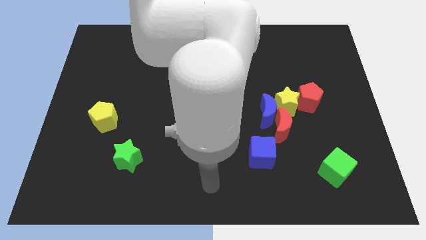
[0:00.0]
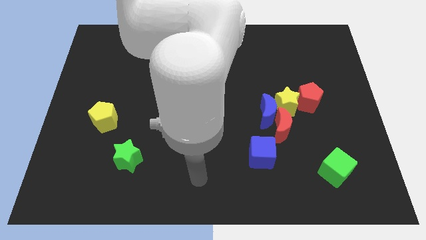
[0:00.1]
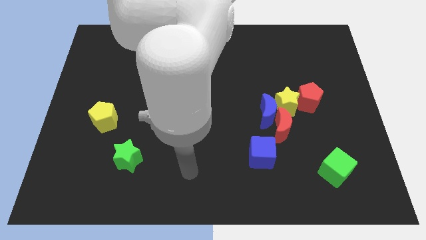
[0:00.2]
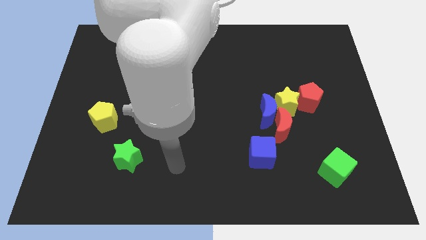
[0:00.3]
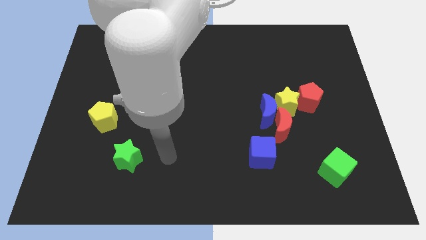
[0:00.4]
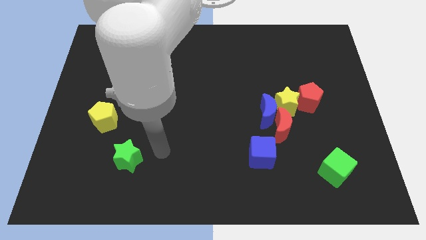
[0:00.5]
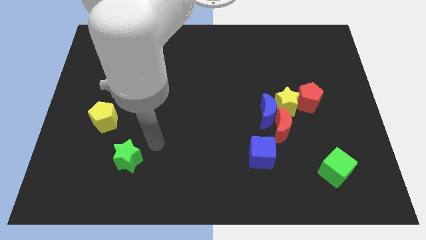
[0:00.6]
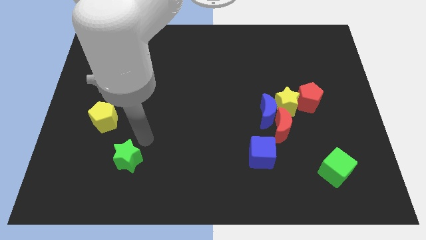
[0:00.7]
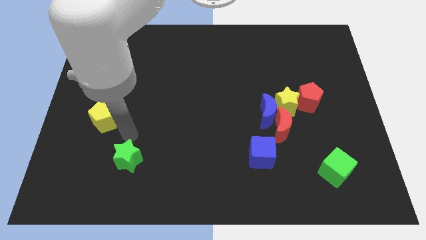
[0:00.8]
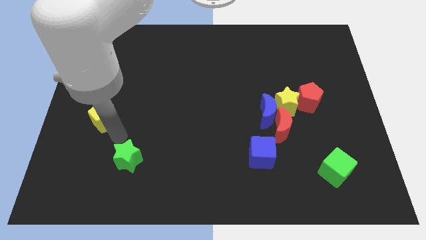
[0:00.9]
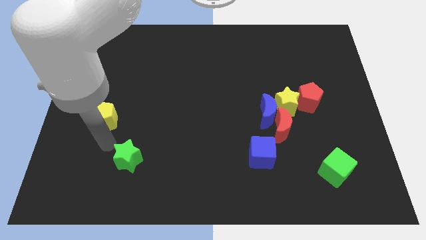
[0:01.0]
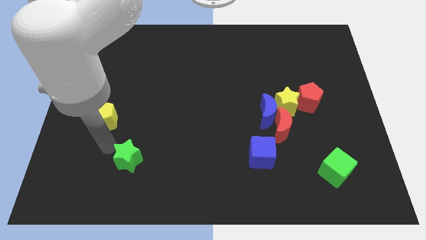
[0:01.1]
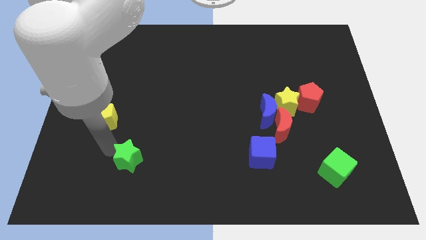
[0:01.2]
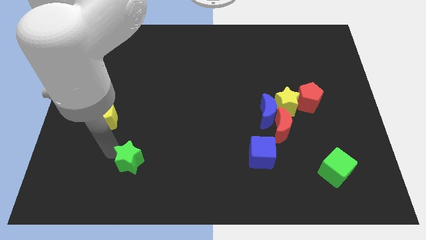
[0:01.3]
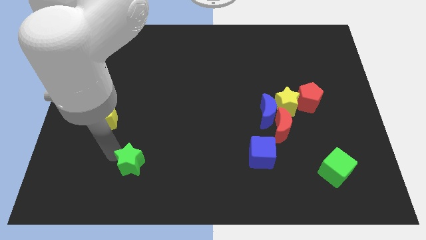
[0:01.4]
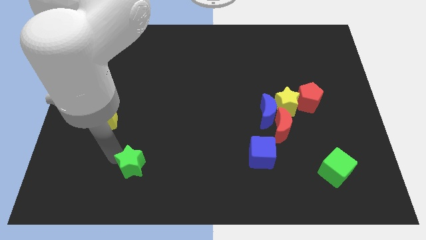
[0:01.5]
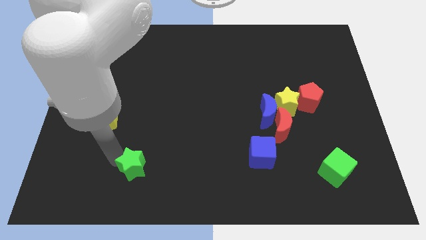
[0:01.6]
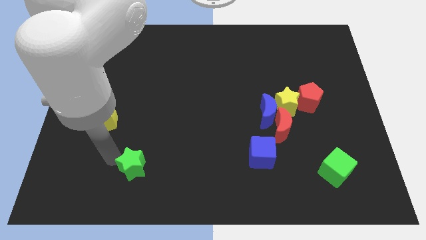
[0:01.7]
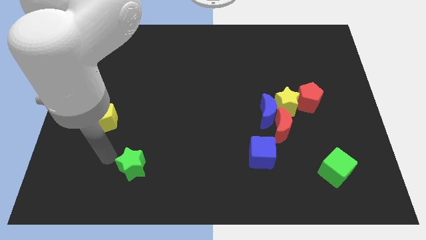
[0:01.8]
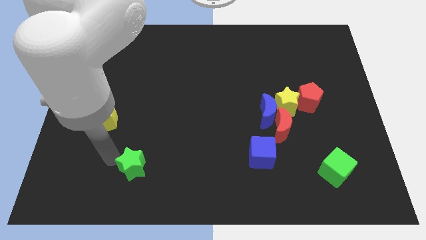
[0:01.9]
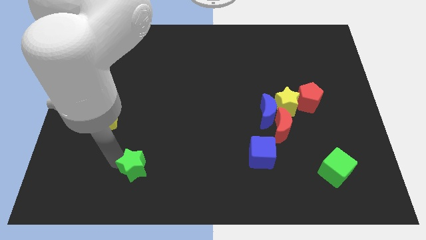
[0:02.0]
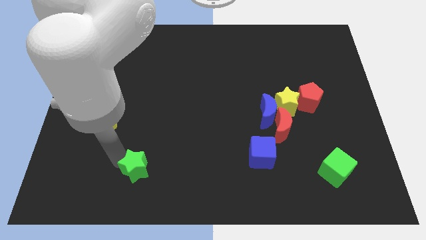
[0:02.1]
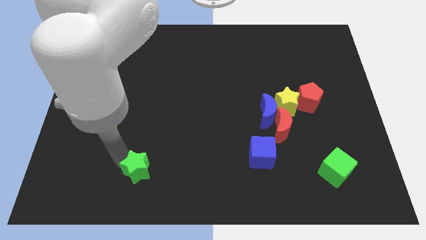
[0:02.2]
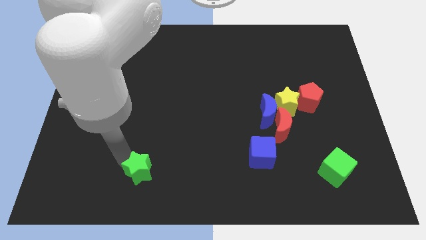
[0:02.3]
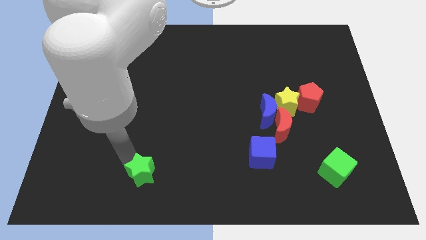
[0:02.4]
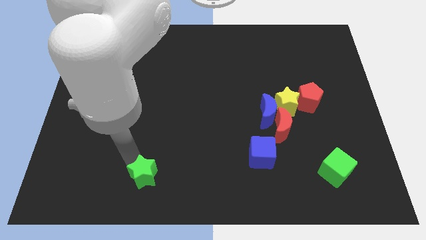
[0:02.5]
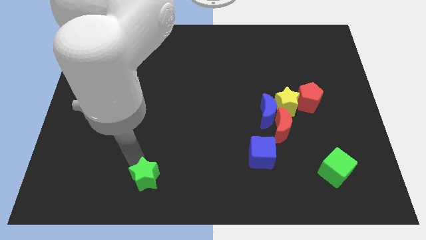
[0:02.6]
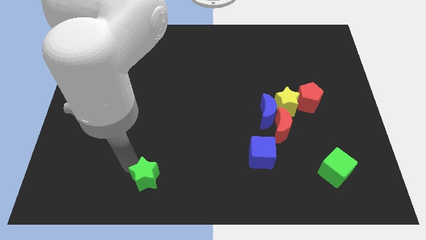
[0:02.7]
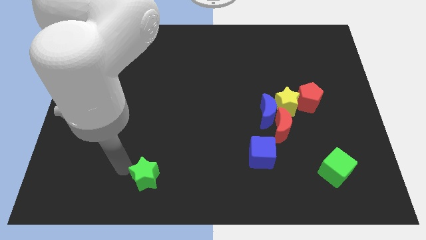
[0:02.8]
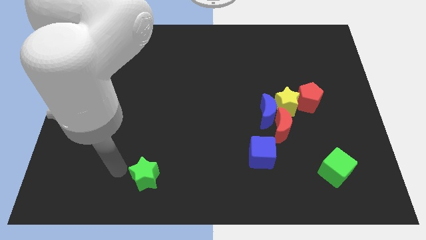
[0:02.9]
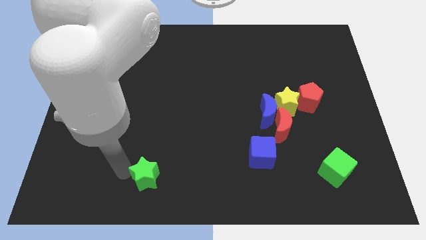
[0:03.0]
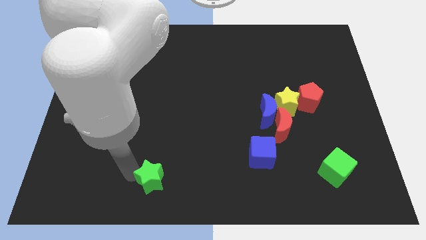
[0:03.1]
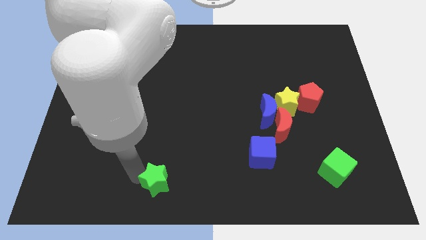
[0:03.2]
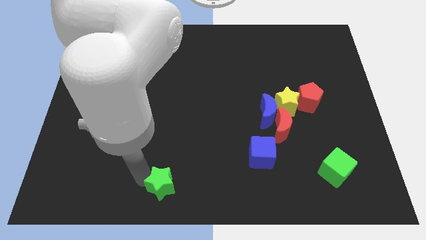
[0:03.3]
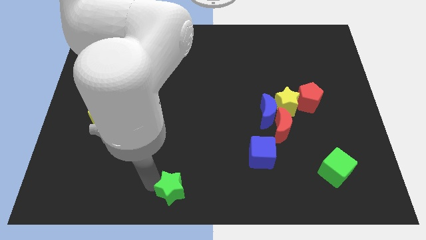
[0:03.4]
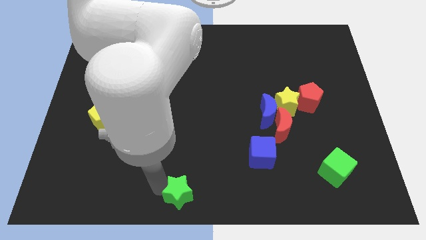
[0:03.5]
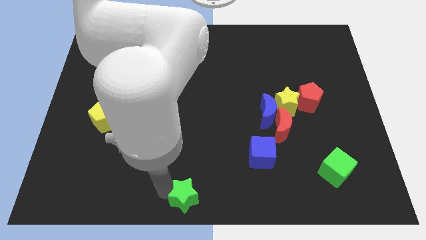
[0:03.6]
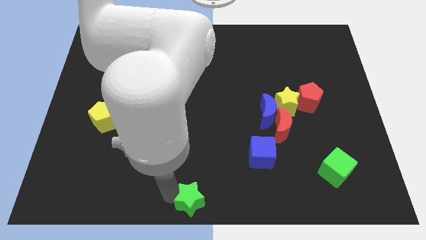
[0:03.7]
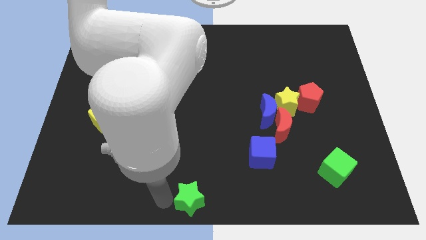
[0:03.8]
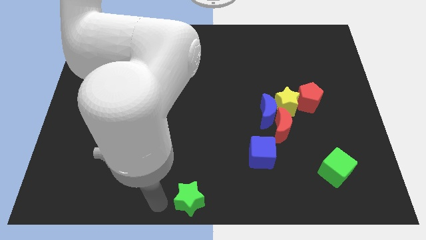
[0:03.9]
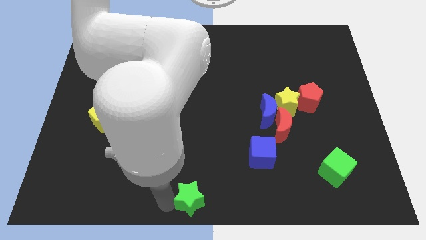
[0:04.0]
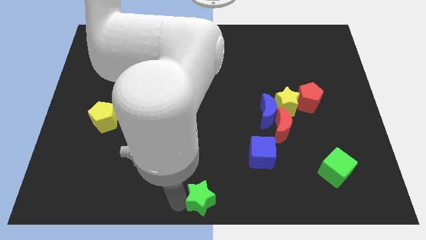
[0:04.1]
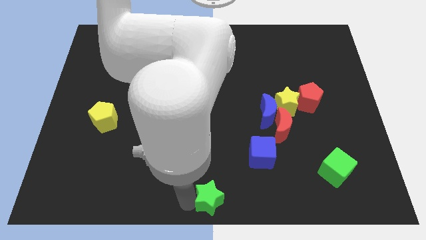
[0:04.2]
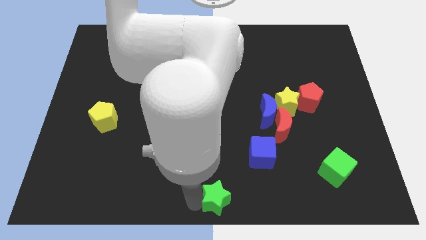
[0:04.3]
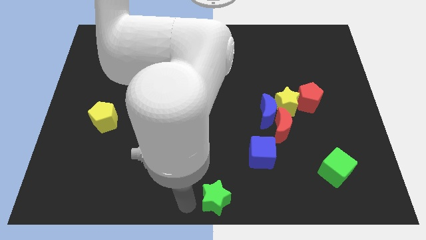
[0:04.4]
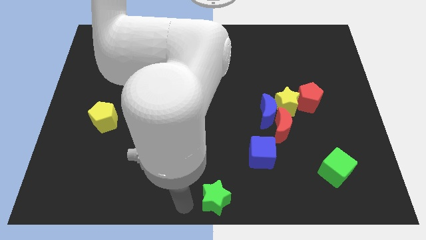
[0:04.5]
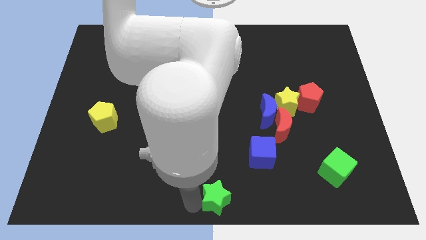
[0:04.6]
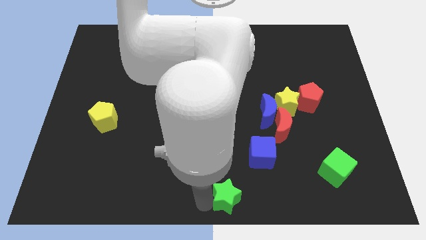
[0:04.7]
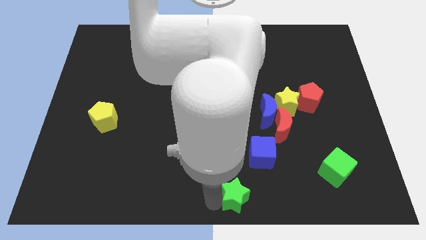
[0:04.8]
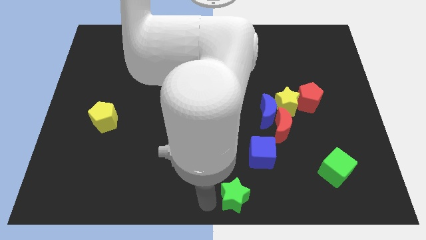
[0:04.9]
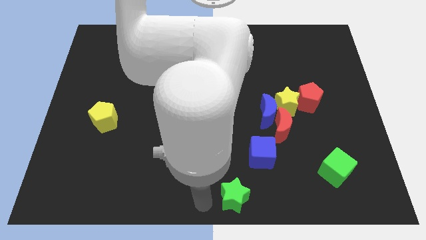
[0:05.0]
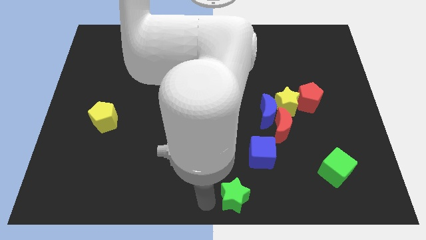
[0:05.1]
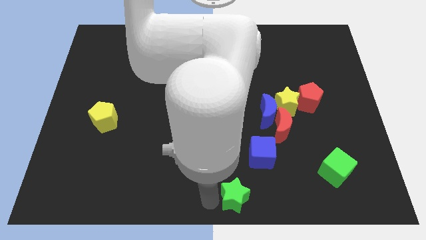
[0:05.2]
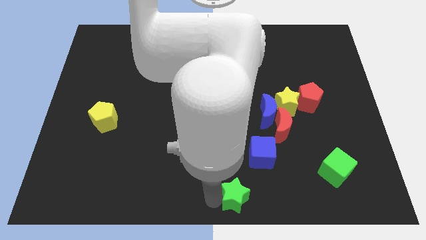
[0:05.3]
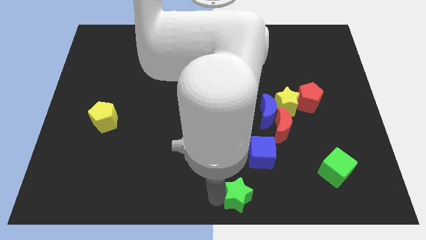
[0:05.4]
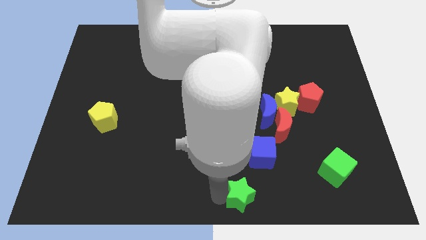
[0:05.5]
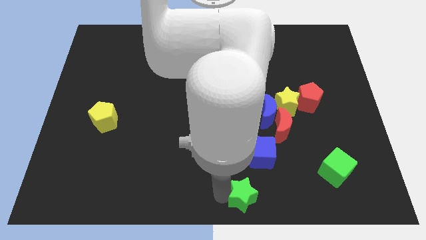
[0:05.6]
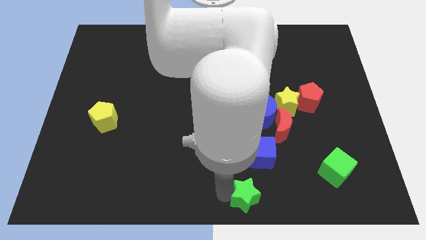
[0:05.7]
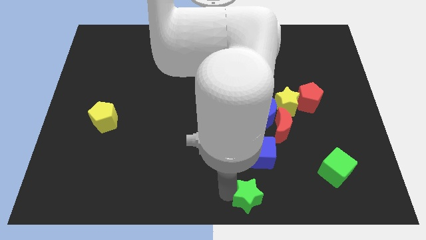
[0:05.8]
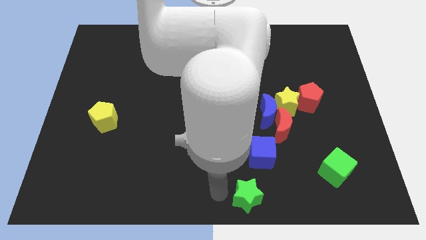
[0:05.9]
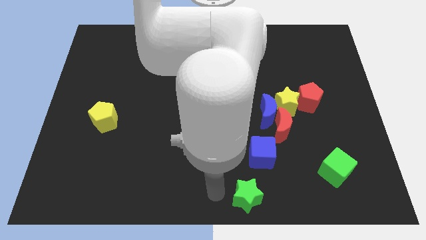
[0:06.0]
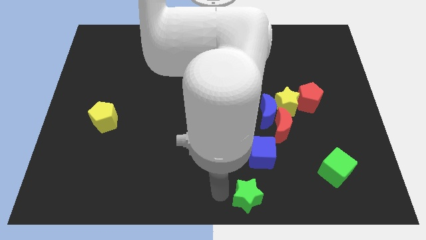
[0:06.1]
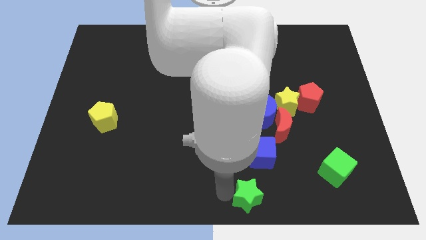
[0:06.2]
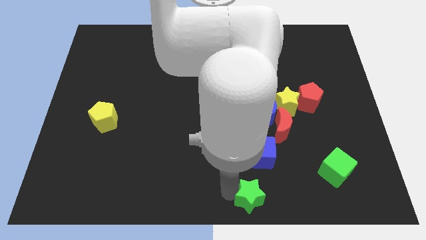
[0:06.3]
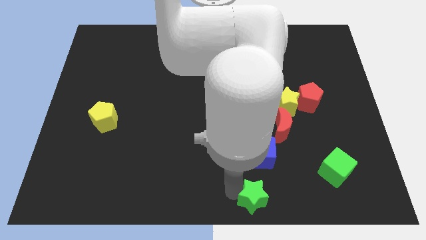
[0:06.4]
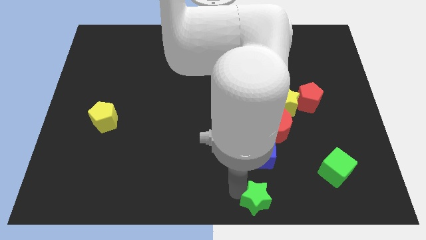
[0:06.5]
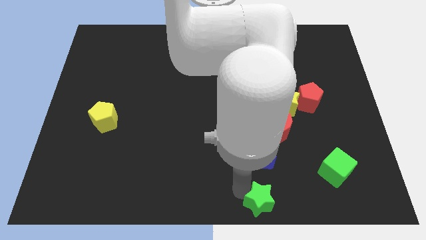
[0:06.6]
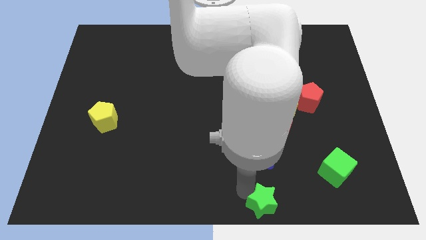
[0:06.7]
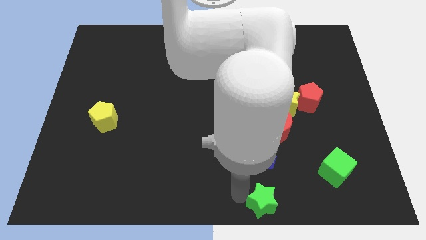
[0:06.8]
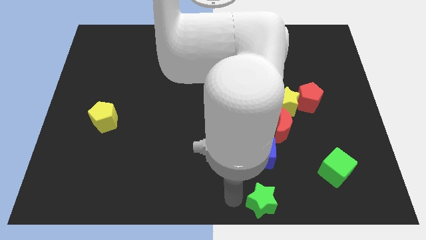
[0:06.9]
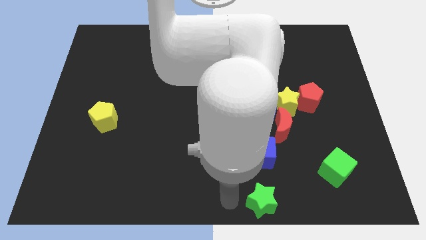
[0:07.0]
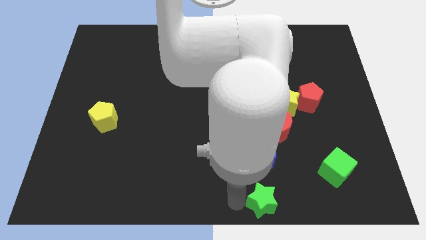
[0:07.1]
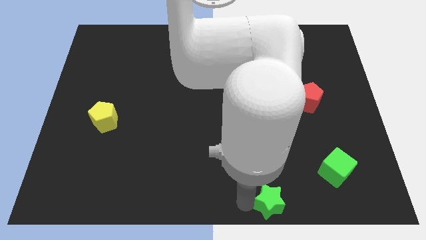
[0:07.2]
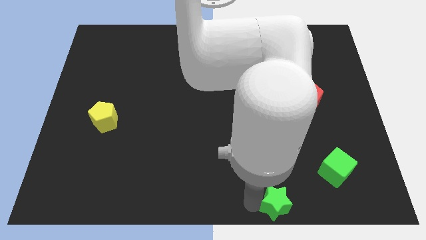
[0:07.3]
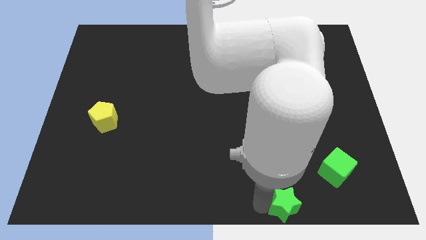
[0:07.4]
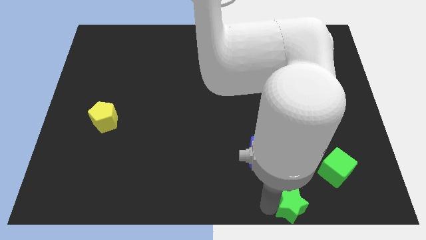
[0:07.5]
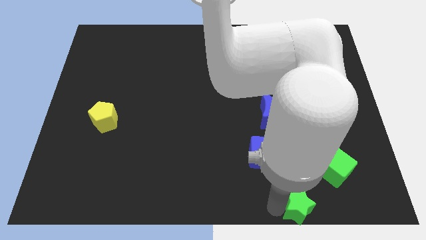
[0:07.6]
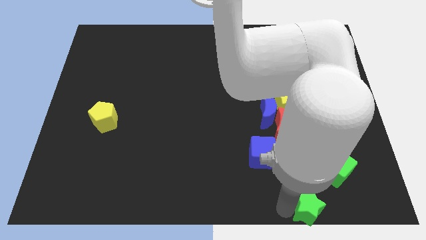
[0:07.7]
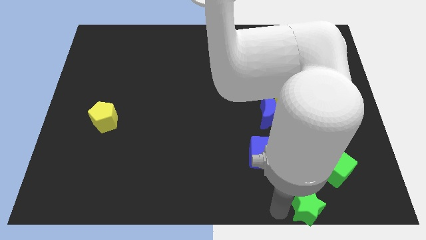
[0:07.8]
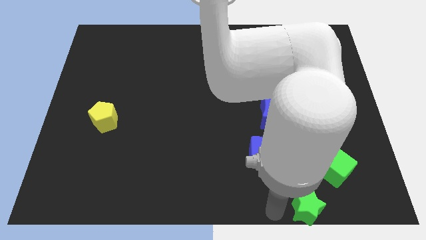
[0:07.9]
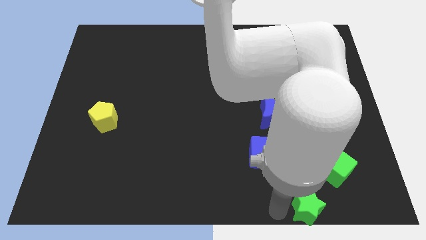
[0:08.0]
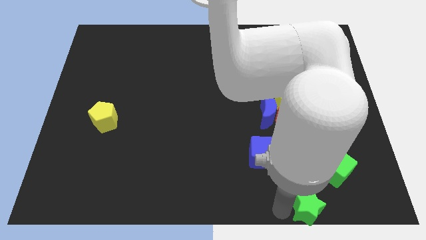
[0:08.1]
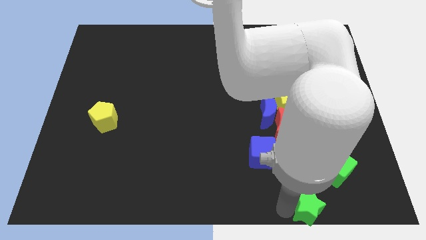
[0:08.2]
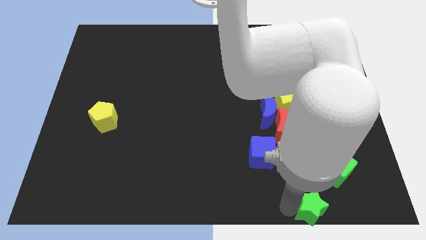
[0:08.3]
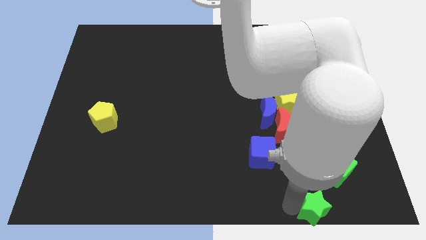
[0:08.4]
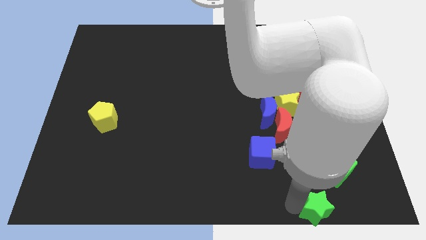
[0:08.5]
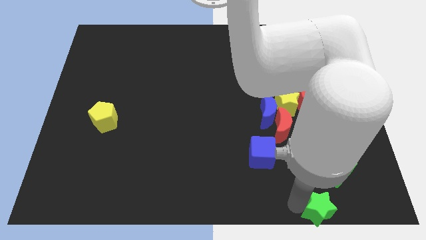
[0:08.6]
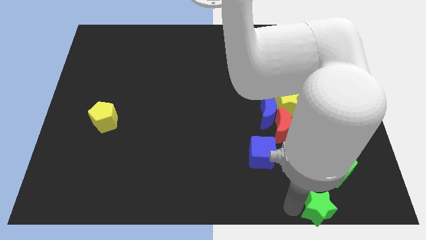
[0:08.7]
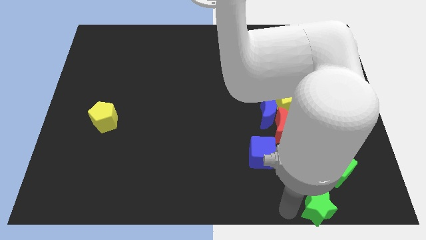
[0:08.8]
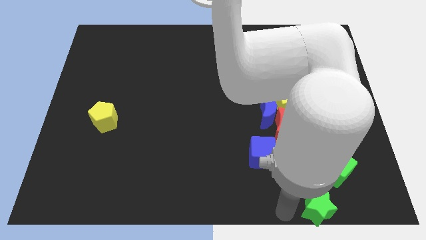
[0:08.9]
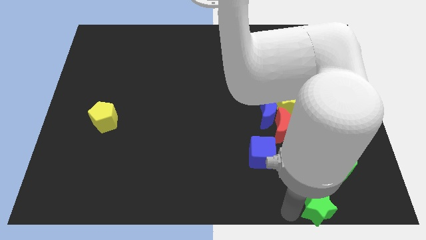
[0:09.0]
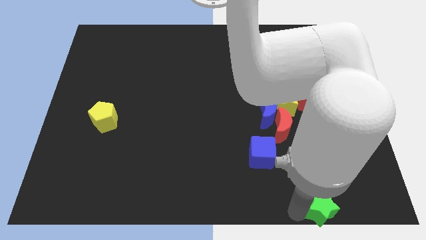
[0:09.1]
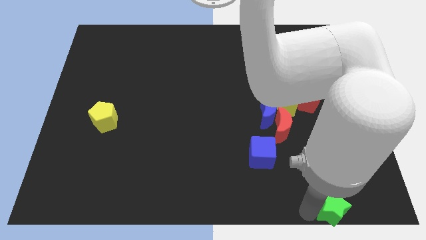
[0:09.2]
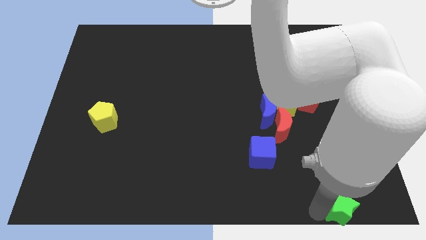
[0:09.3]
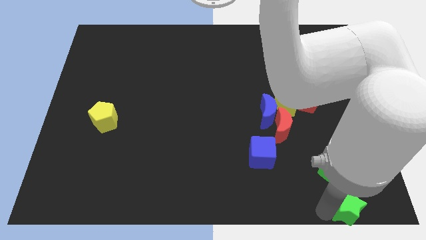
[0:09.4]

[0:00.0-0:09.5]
put the green star to the bottom right of the board
